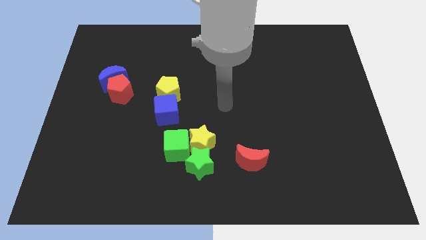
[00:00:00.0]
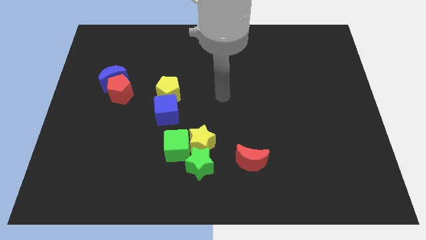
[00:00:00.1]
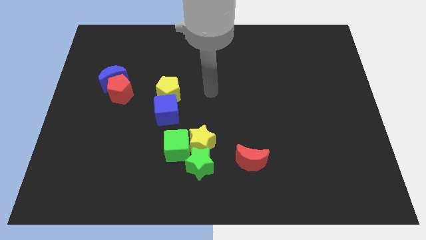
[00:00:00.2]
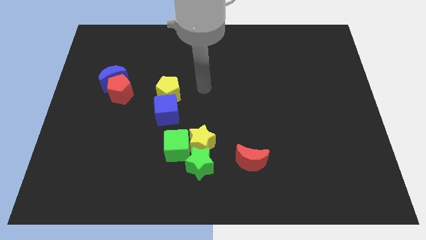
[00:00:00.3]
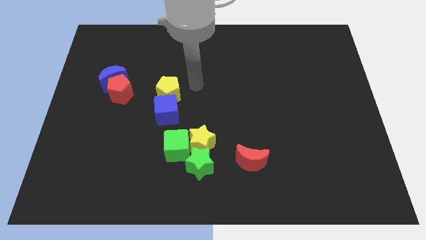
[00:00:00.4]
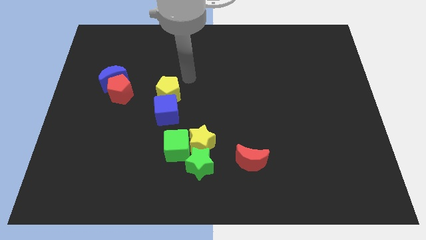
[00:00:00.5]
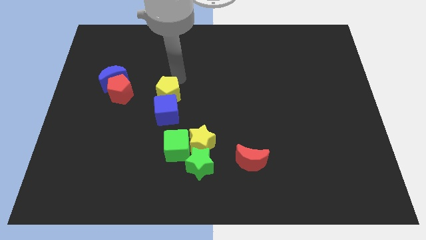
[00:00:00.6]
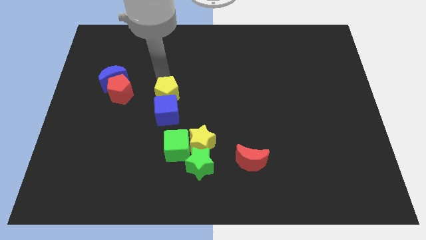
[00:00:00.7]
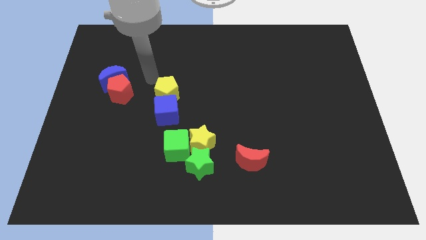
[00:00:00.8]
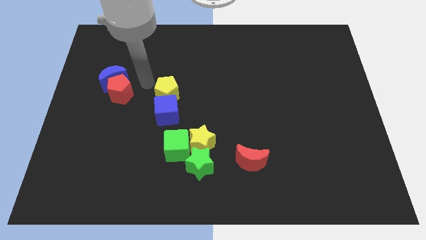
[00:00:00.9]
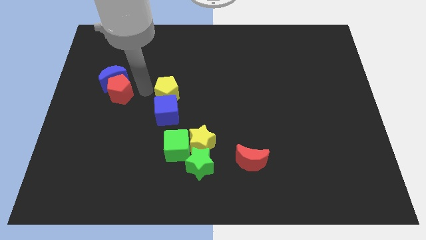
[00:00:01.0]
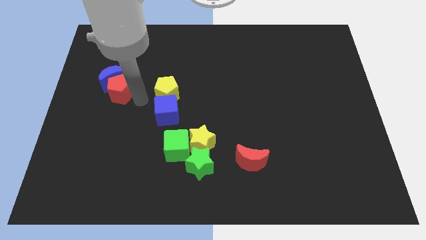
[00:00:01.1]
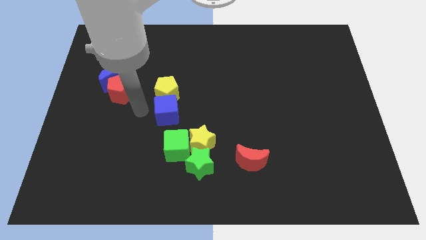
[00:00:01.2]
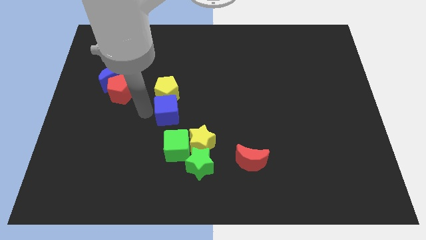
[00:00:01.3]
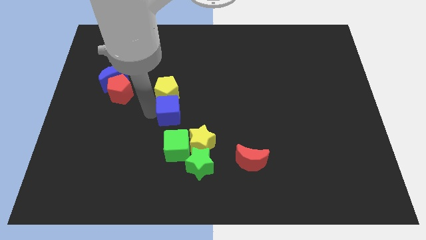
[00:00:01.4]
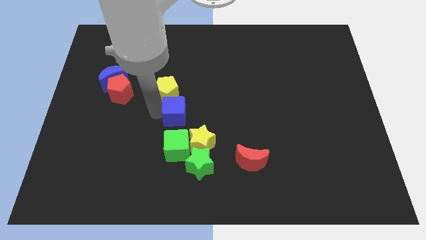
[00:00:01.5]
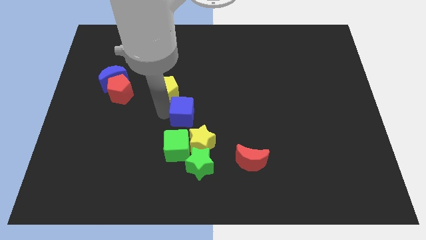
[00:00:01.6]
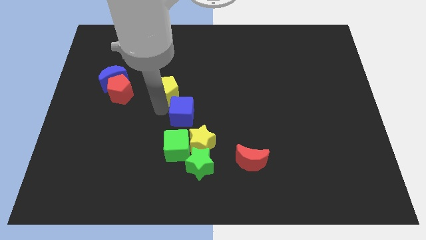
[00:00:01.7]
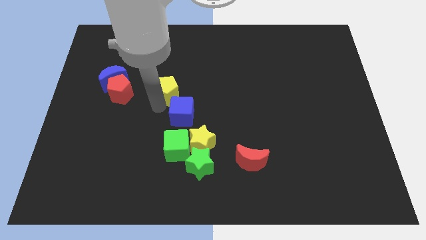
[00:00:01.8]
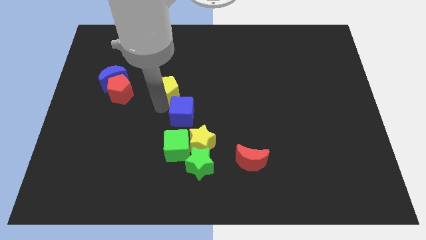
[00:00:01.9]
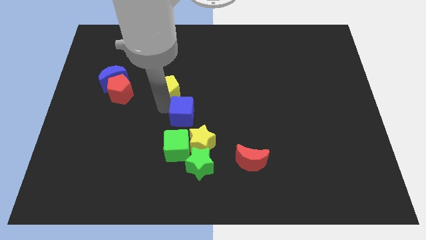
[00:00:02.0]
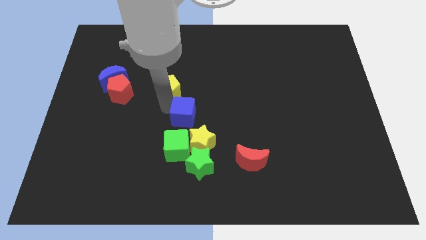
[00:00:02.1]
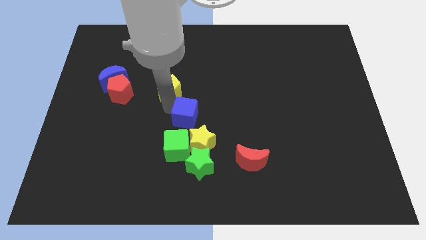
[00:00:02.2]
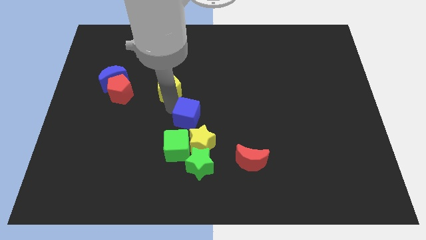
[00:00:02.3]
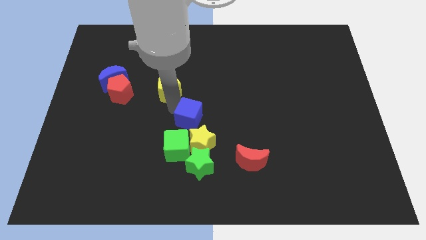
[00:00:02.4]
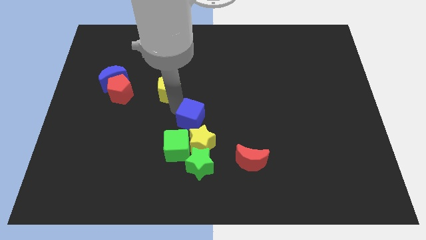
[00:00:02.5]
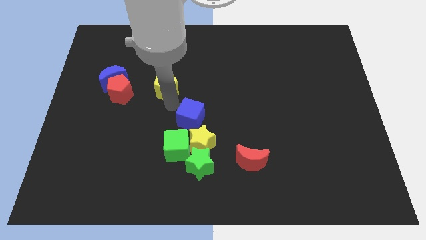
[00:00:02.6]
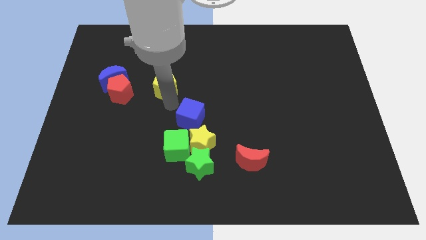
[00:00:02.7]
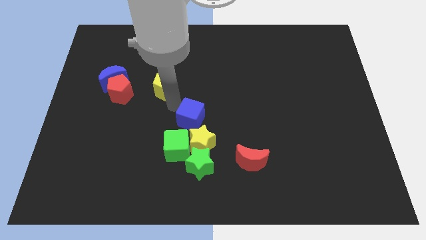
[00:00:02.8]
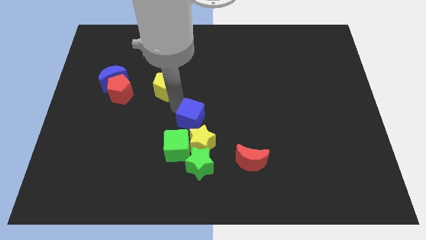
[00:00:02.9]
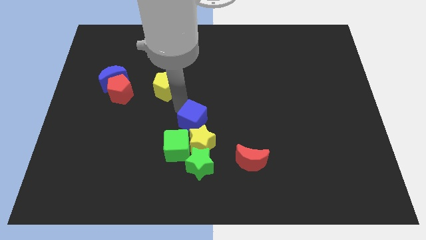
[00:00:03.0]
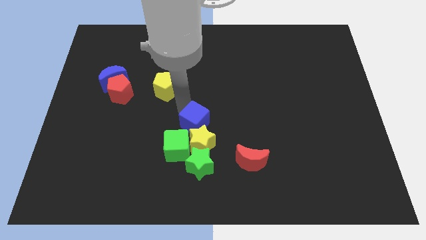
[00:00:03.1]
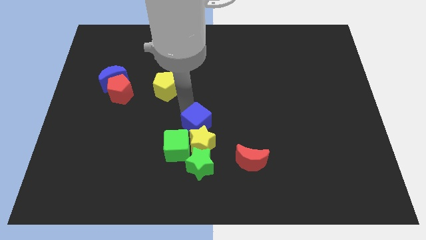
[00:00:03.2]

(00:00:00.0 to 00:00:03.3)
slightly push the blue cube downwards and to the right

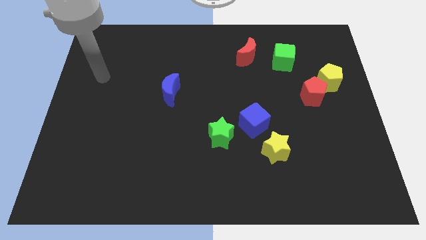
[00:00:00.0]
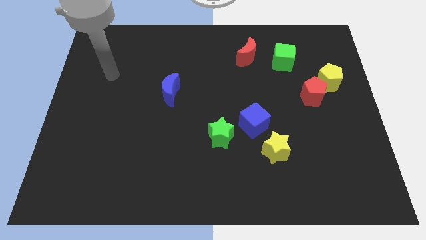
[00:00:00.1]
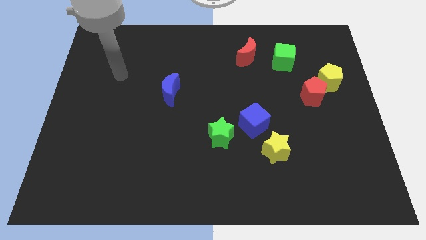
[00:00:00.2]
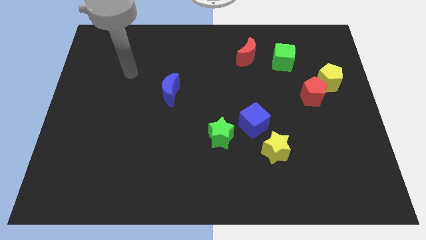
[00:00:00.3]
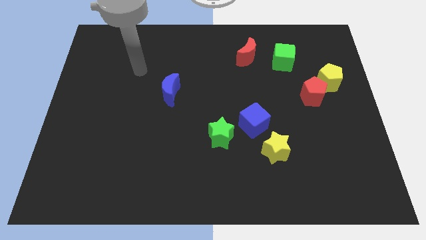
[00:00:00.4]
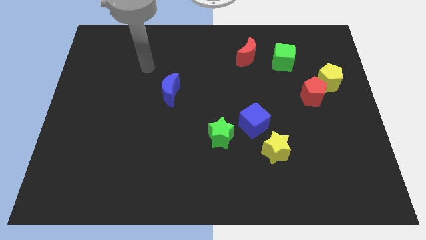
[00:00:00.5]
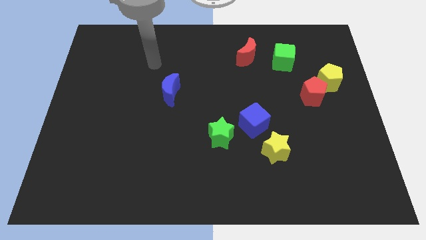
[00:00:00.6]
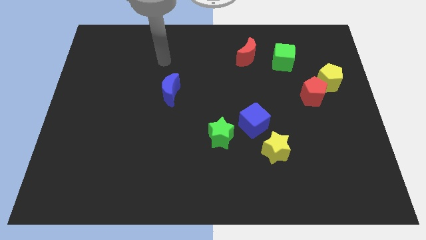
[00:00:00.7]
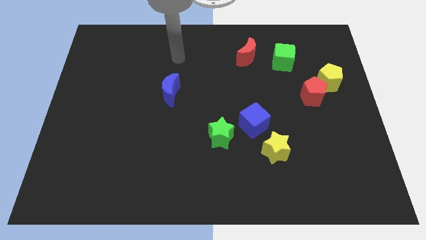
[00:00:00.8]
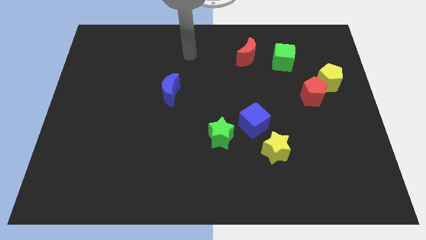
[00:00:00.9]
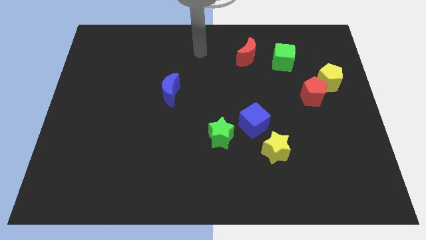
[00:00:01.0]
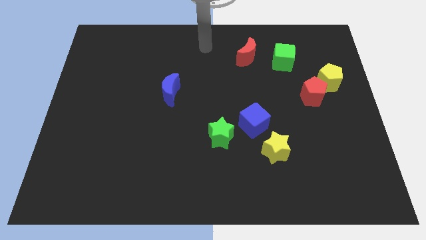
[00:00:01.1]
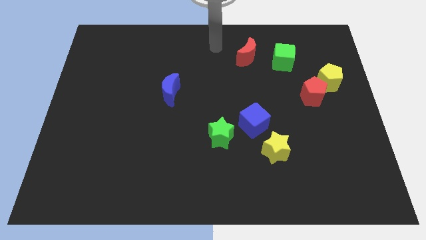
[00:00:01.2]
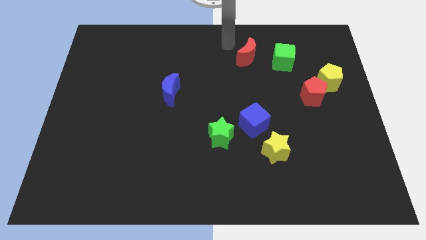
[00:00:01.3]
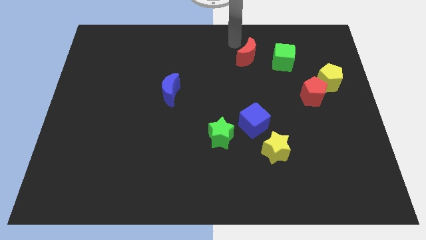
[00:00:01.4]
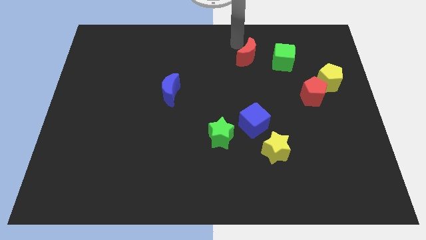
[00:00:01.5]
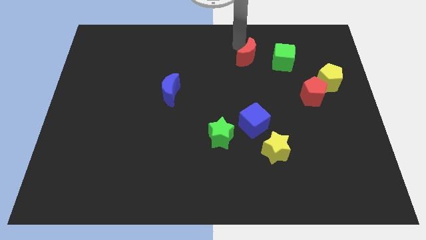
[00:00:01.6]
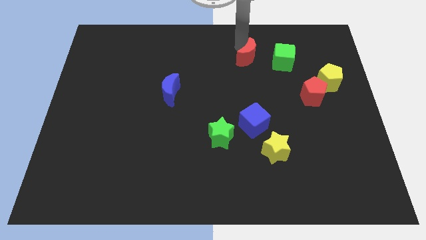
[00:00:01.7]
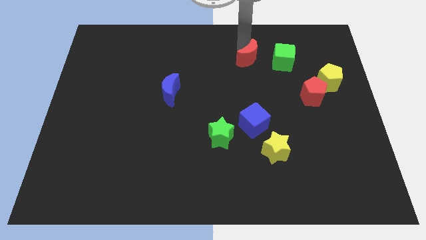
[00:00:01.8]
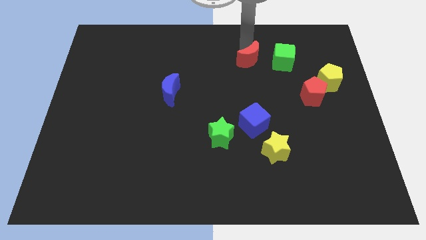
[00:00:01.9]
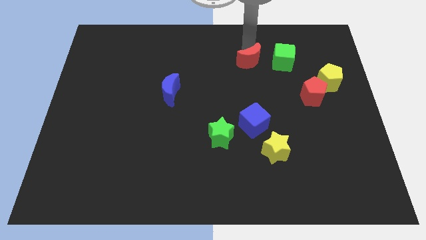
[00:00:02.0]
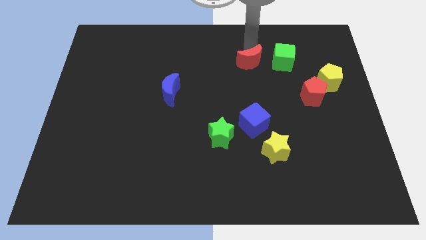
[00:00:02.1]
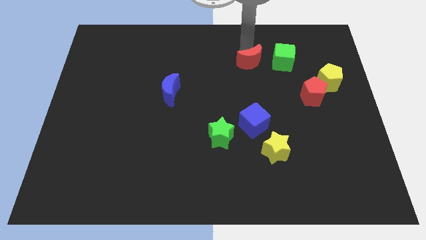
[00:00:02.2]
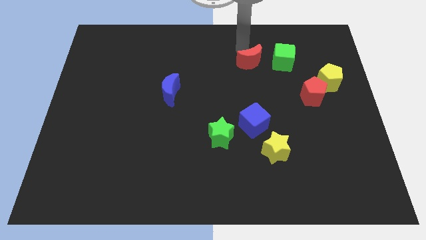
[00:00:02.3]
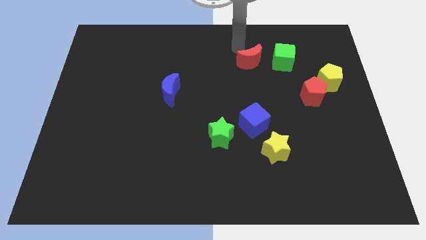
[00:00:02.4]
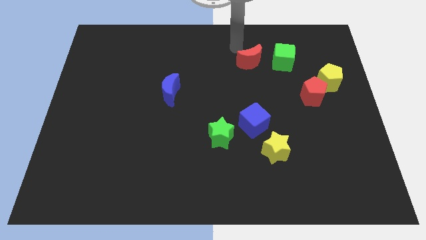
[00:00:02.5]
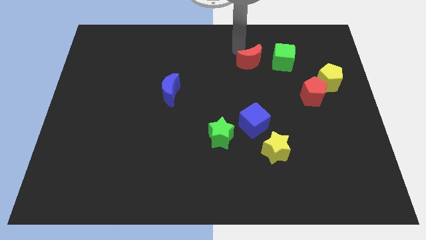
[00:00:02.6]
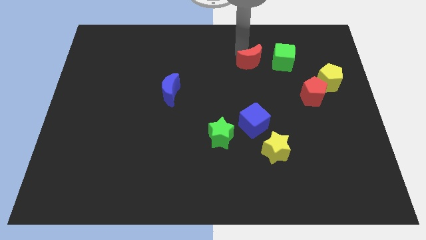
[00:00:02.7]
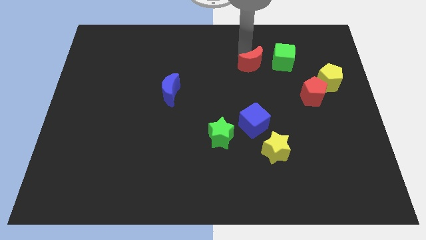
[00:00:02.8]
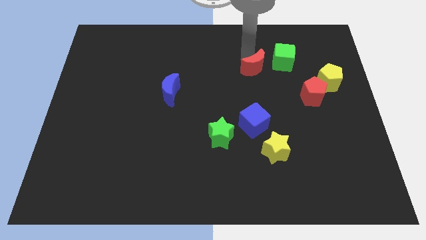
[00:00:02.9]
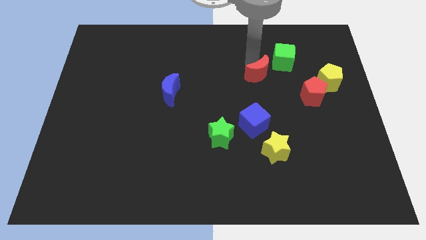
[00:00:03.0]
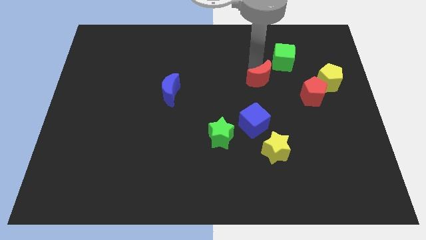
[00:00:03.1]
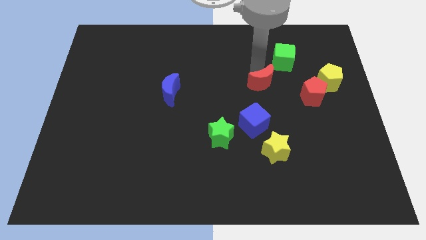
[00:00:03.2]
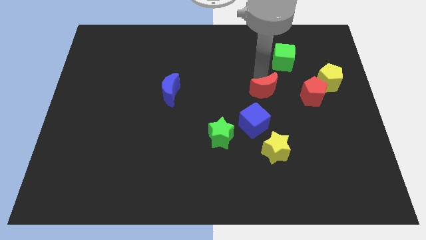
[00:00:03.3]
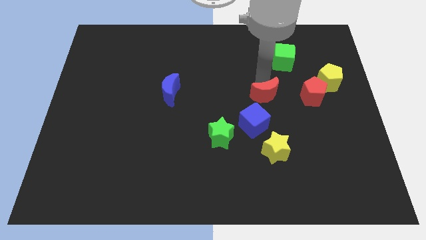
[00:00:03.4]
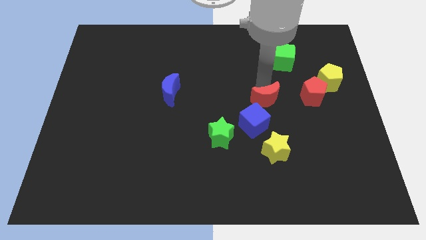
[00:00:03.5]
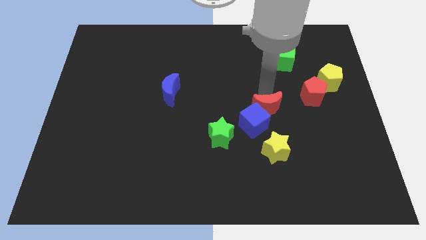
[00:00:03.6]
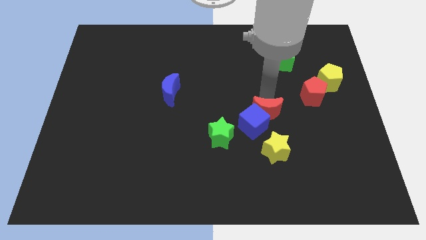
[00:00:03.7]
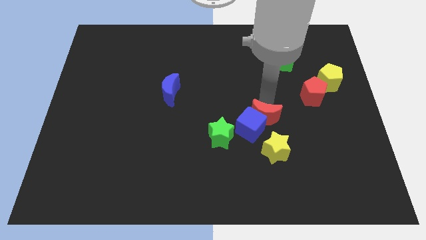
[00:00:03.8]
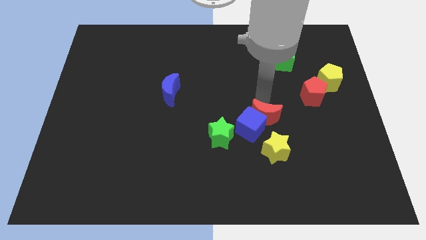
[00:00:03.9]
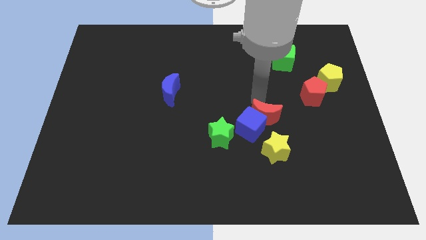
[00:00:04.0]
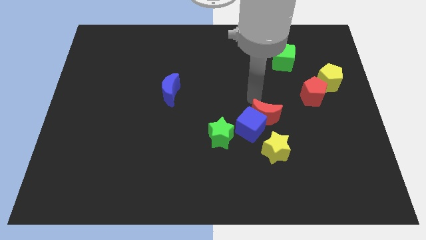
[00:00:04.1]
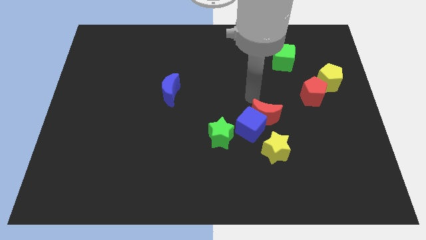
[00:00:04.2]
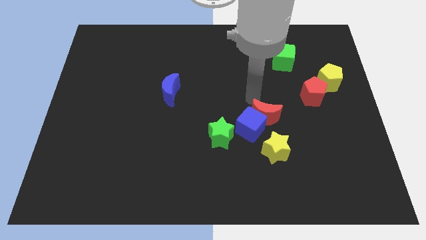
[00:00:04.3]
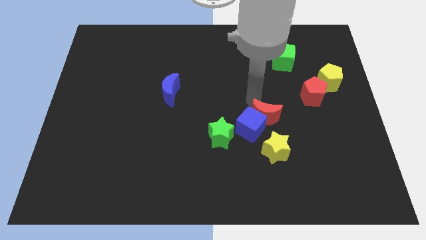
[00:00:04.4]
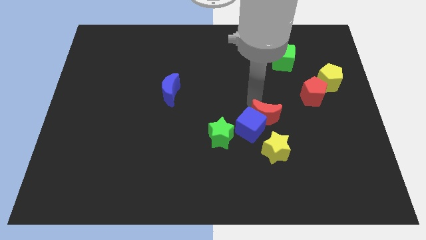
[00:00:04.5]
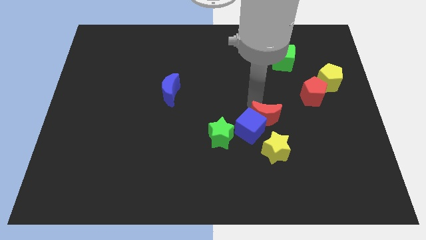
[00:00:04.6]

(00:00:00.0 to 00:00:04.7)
slide the red moon down

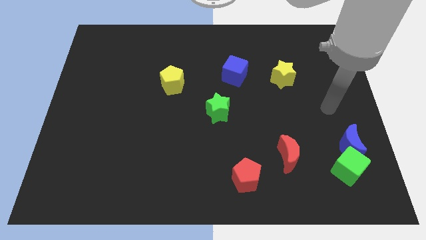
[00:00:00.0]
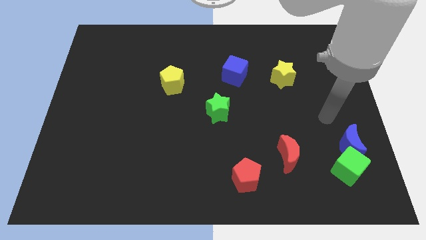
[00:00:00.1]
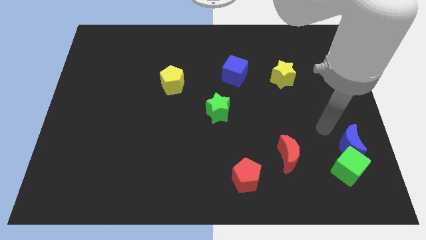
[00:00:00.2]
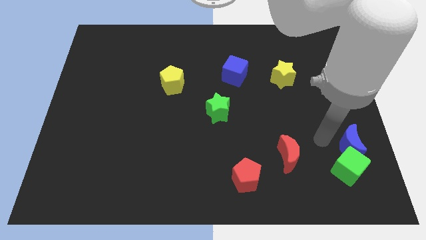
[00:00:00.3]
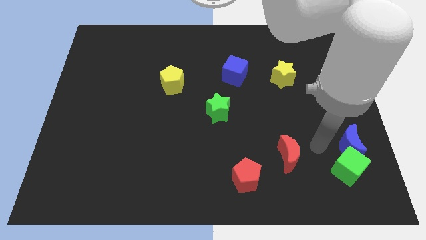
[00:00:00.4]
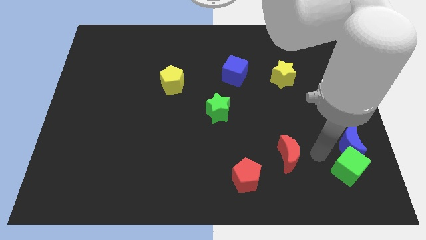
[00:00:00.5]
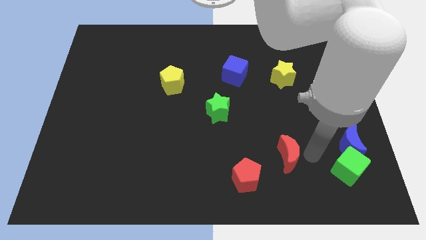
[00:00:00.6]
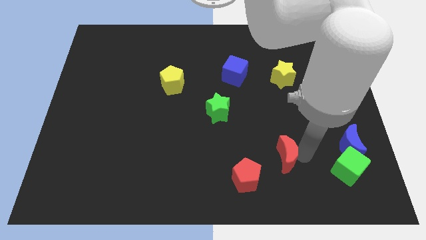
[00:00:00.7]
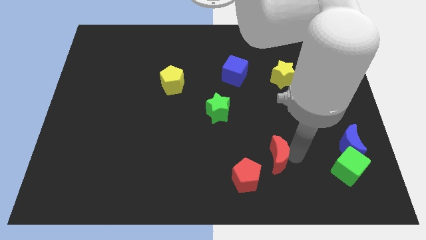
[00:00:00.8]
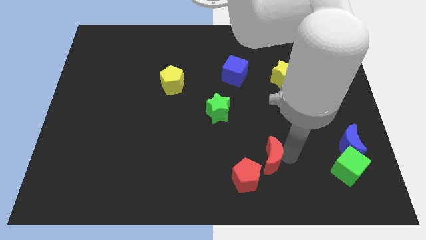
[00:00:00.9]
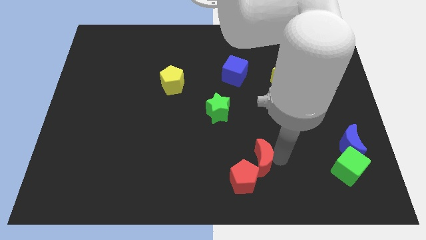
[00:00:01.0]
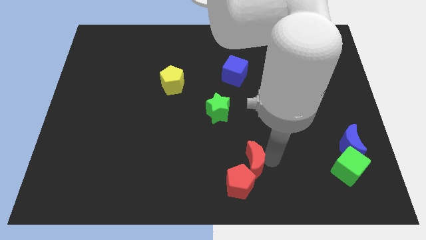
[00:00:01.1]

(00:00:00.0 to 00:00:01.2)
slide the red moon a little bit to the left
